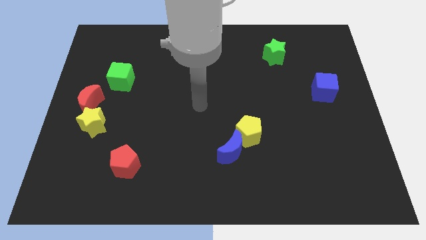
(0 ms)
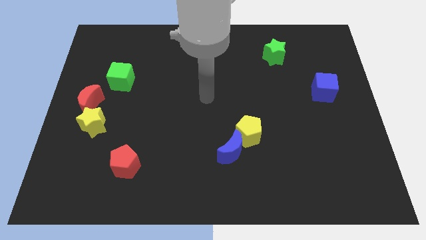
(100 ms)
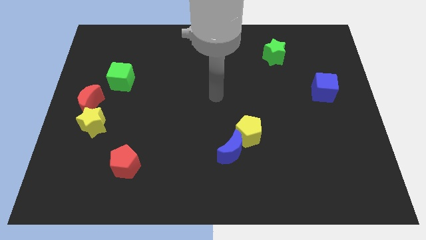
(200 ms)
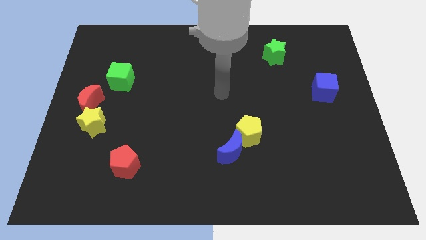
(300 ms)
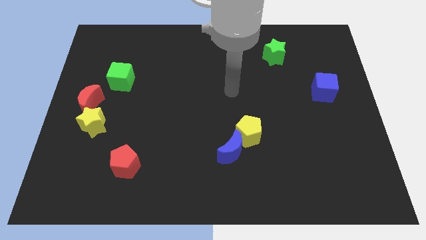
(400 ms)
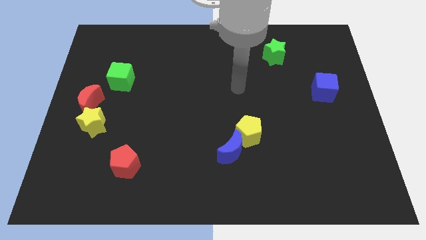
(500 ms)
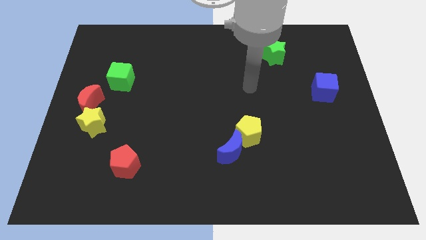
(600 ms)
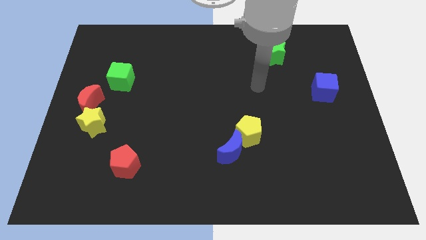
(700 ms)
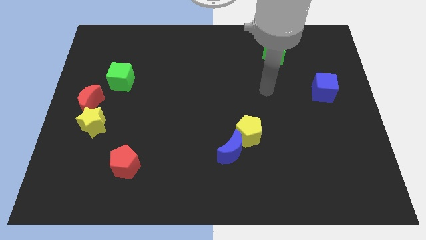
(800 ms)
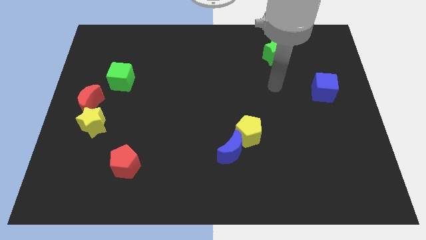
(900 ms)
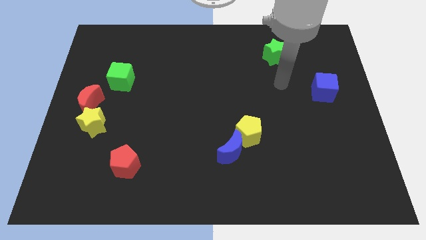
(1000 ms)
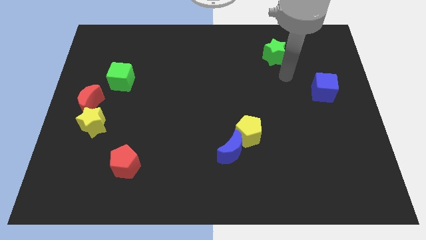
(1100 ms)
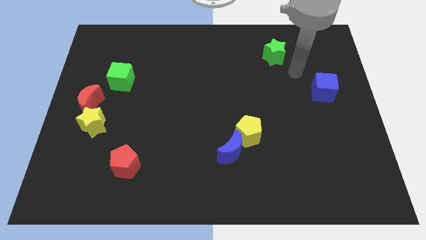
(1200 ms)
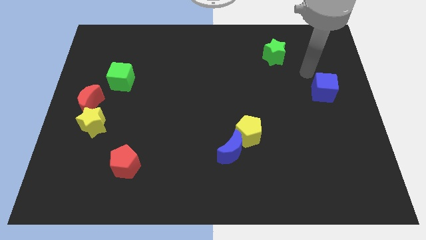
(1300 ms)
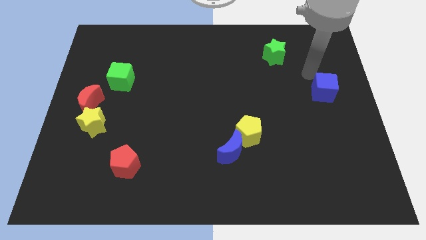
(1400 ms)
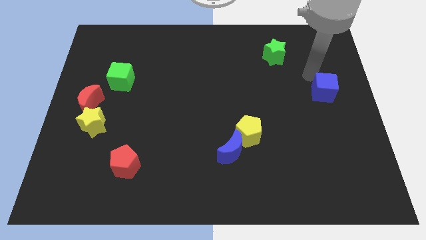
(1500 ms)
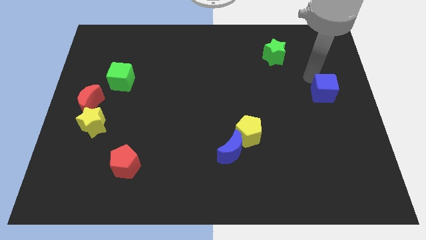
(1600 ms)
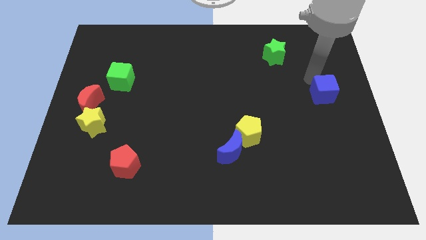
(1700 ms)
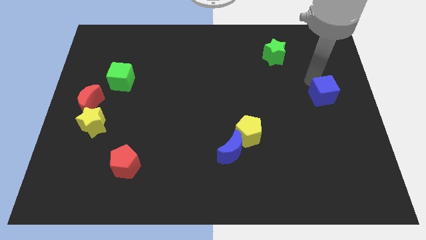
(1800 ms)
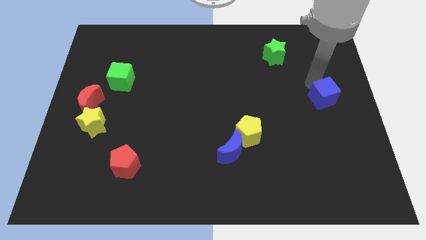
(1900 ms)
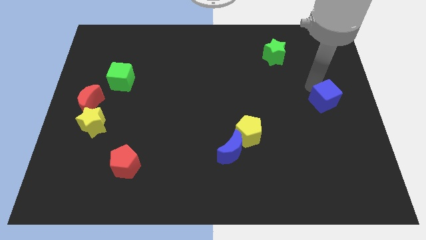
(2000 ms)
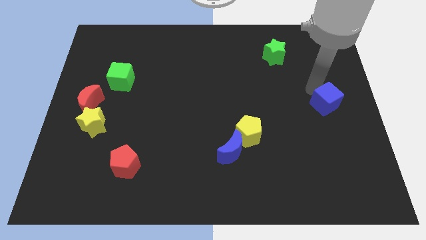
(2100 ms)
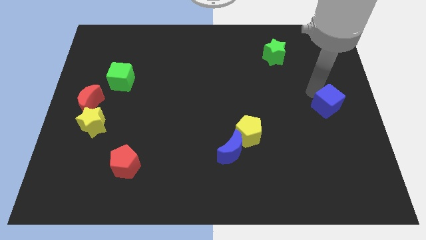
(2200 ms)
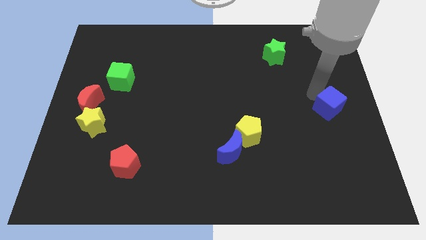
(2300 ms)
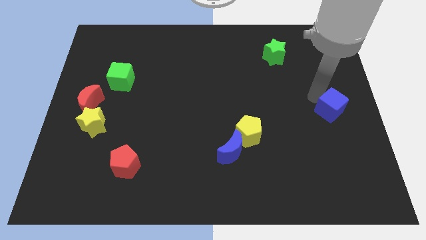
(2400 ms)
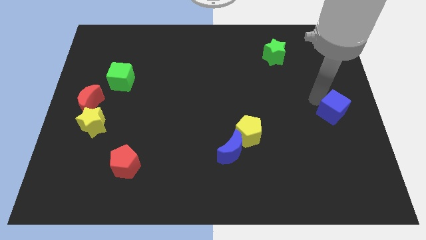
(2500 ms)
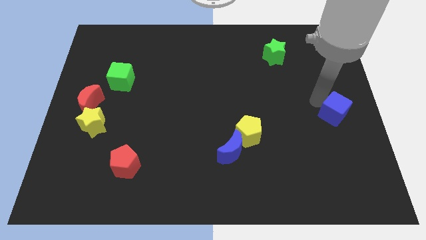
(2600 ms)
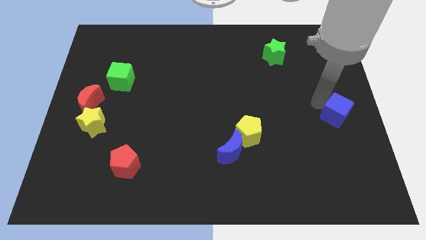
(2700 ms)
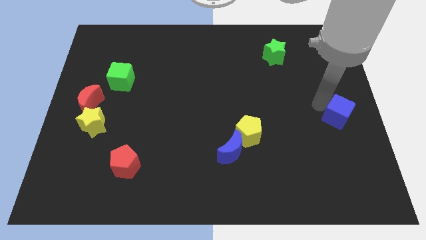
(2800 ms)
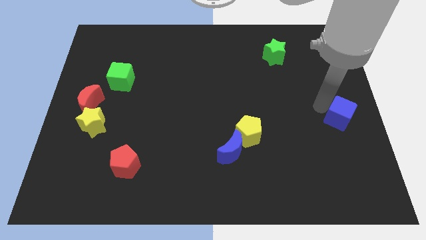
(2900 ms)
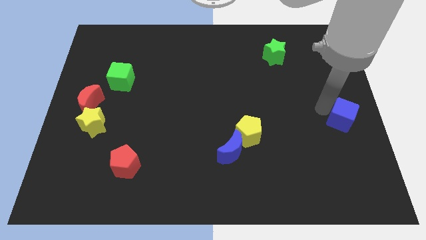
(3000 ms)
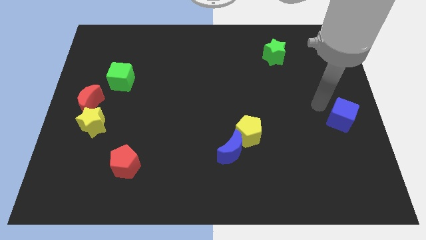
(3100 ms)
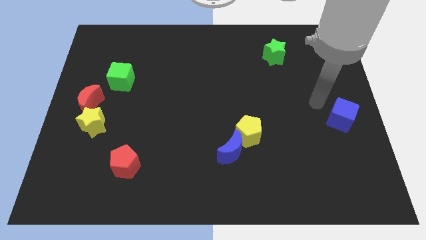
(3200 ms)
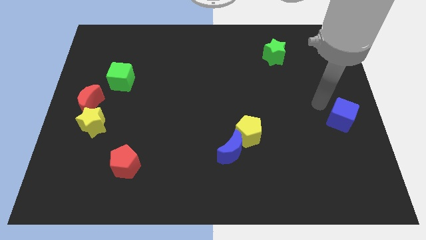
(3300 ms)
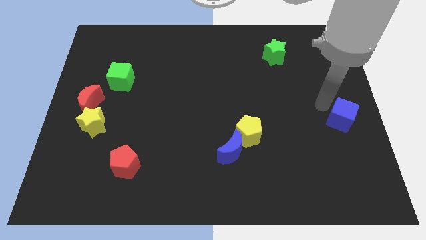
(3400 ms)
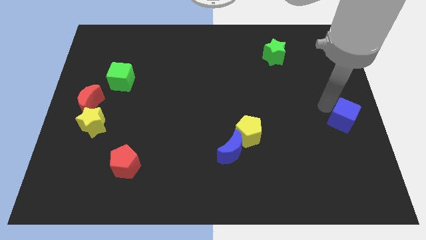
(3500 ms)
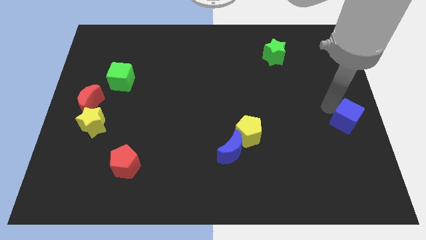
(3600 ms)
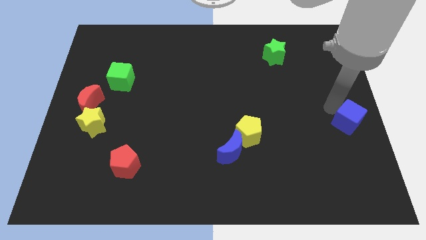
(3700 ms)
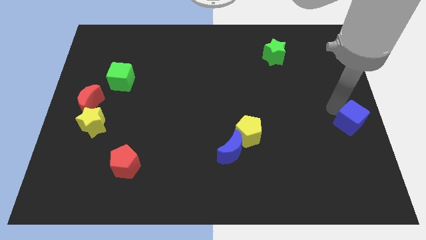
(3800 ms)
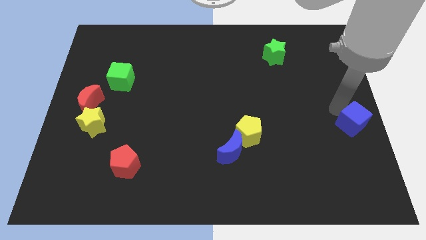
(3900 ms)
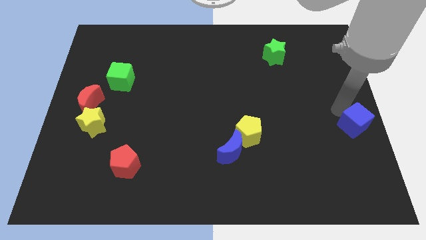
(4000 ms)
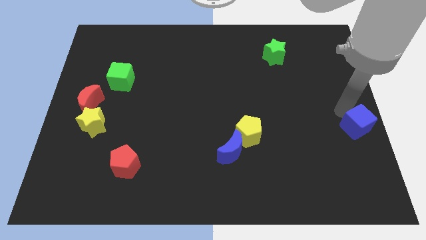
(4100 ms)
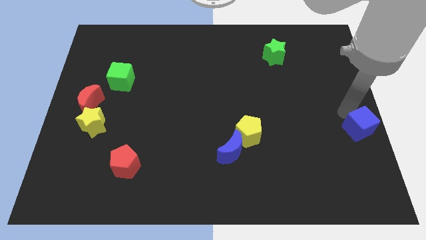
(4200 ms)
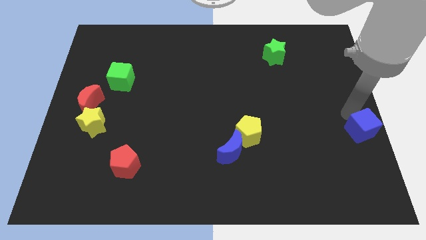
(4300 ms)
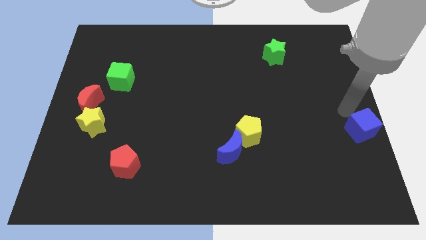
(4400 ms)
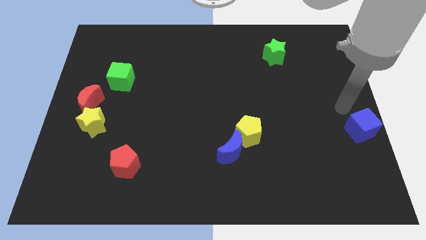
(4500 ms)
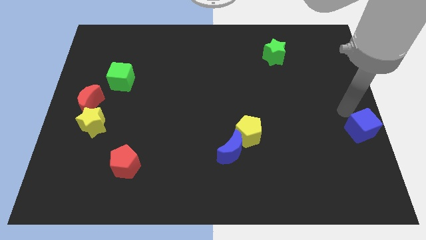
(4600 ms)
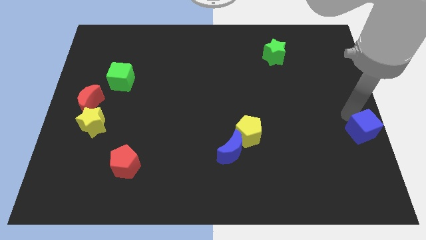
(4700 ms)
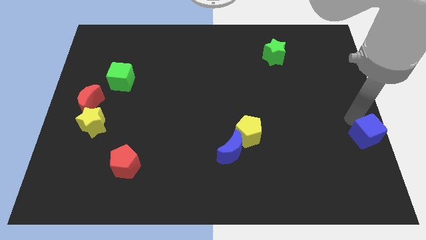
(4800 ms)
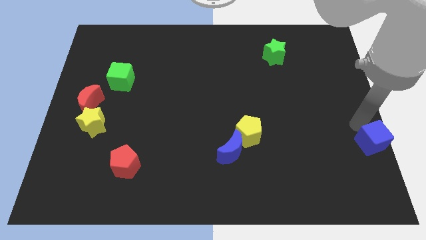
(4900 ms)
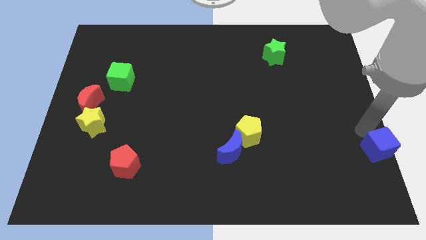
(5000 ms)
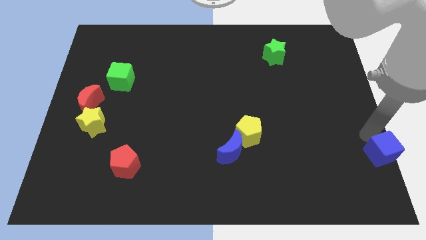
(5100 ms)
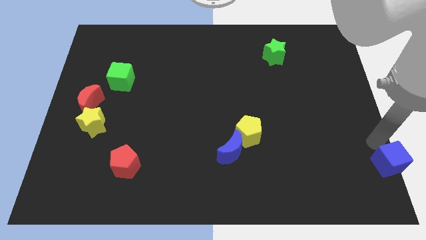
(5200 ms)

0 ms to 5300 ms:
move the blue cube to the bottom right
